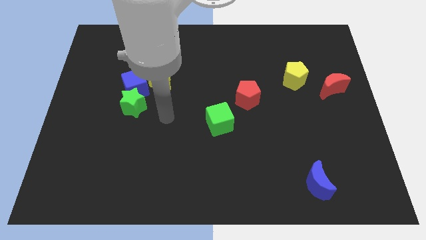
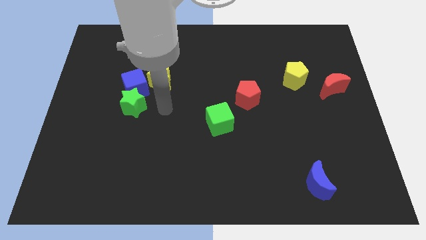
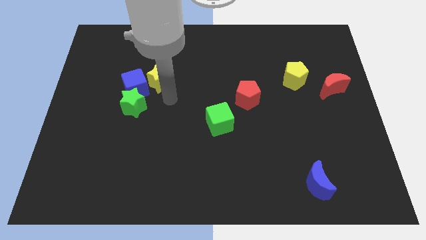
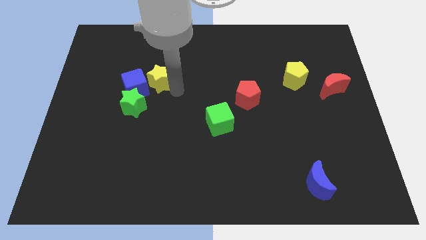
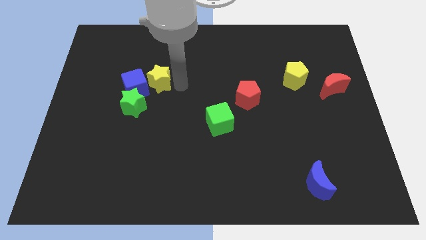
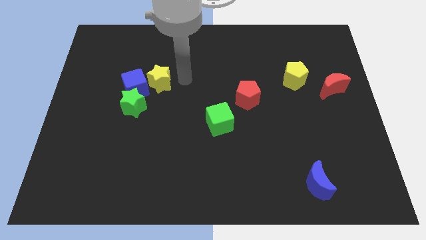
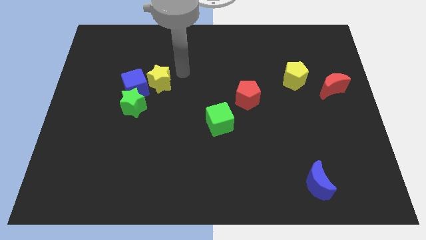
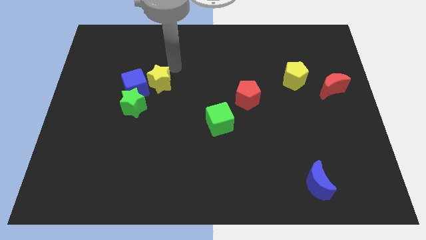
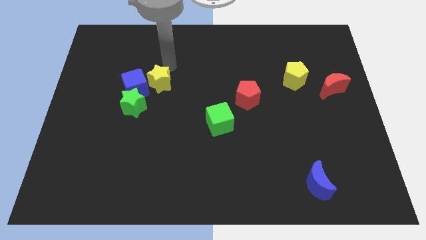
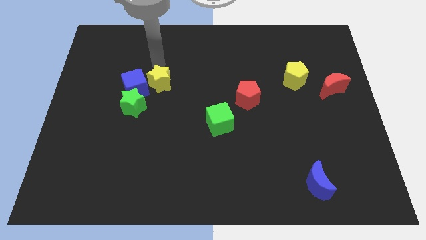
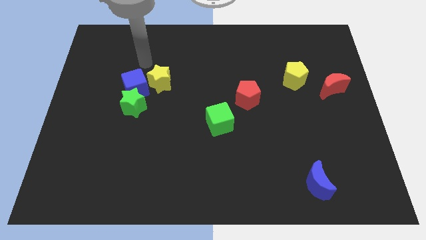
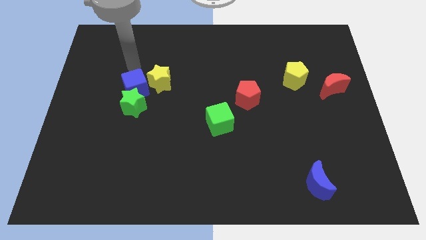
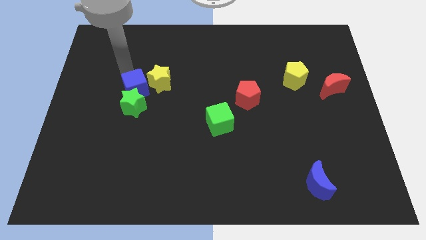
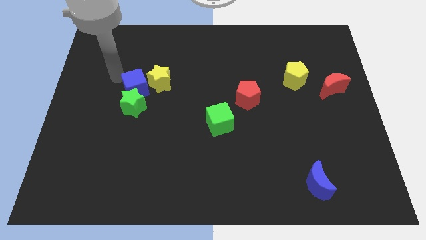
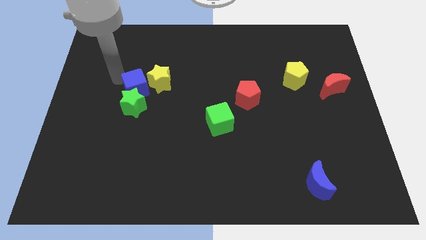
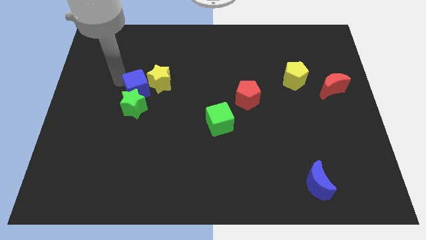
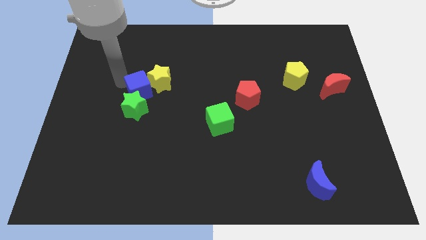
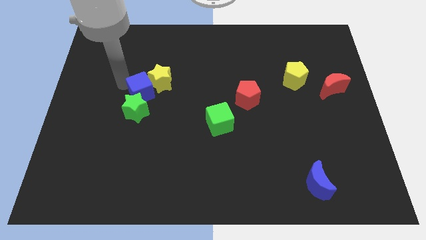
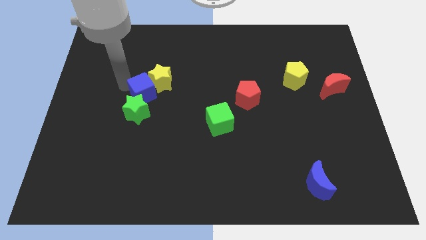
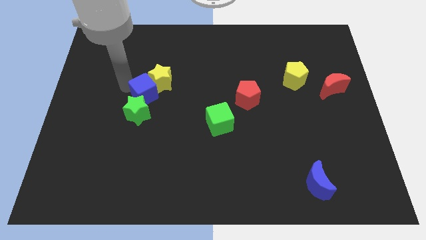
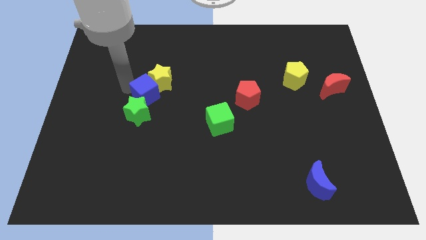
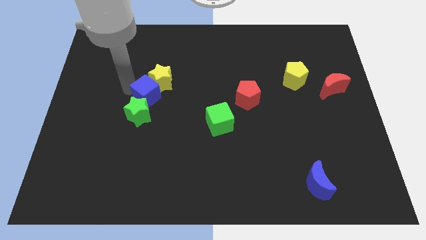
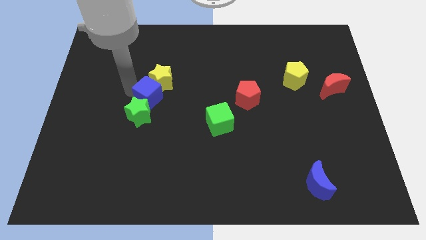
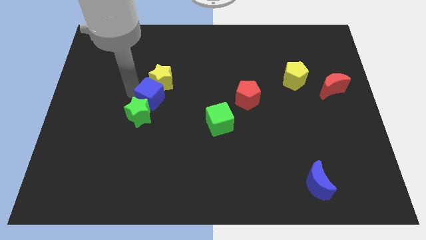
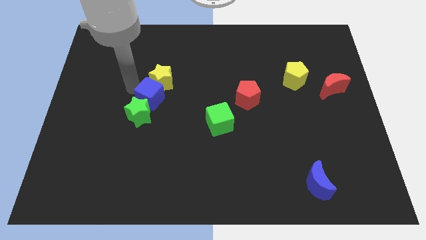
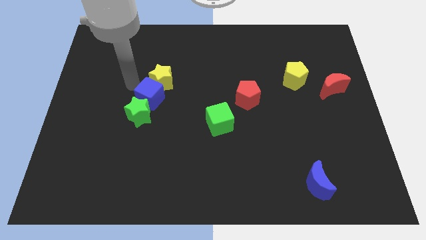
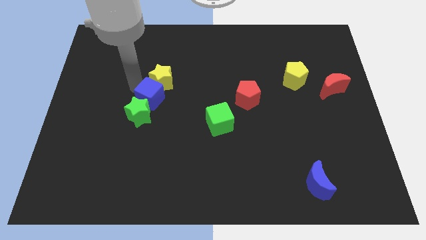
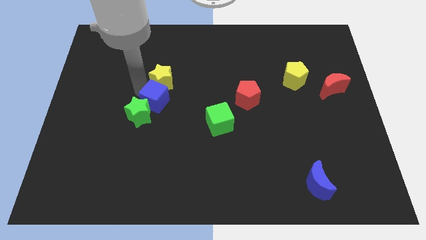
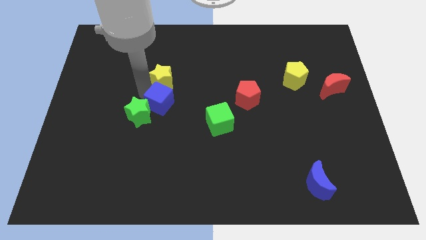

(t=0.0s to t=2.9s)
slide the blue cube somewhat down and right diagonally

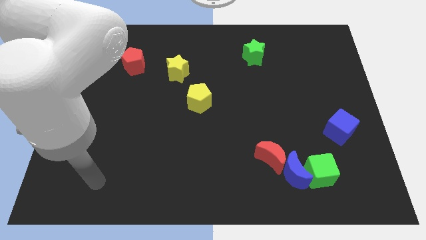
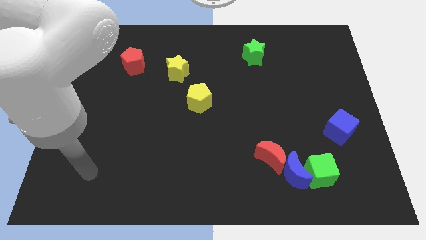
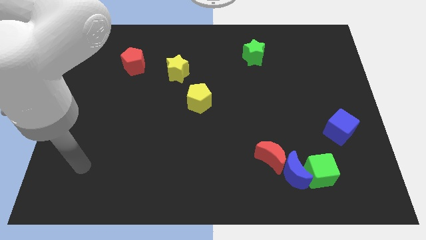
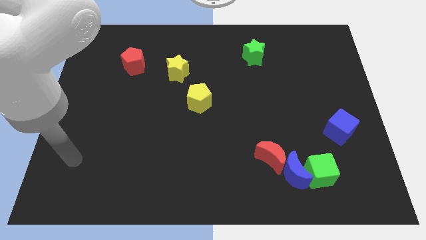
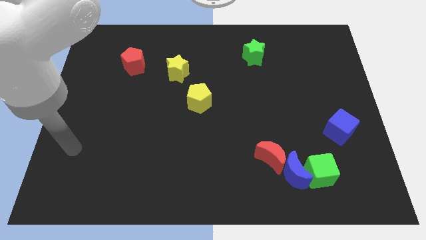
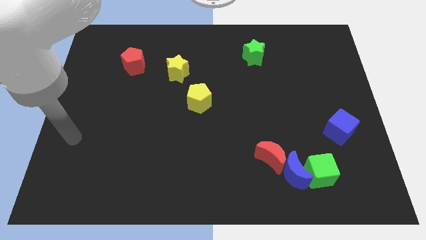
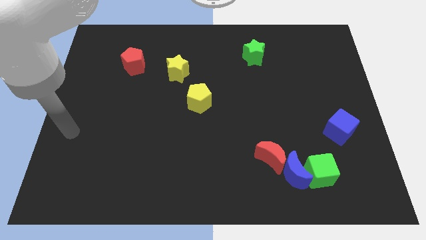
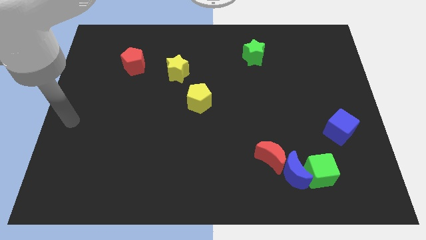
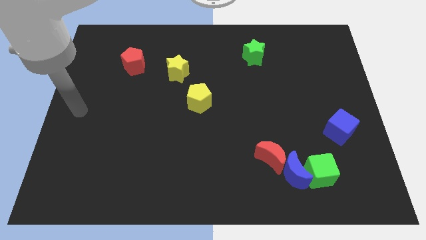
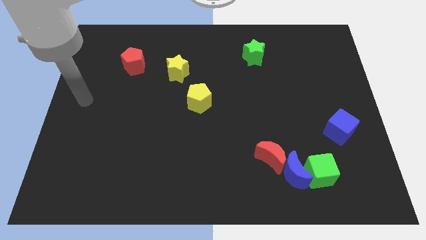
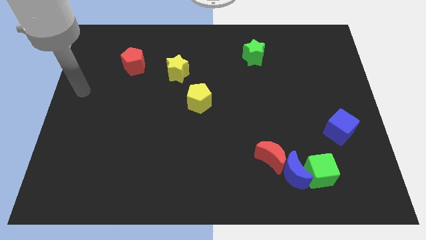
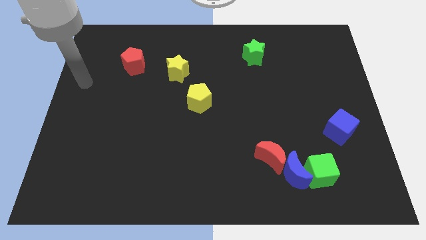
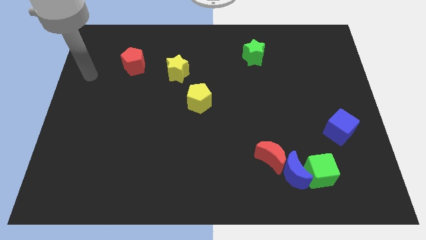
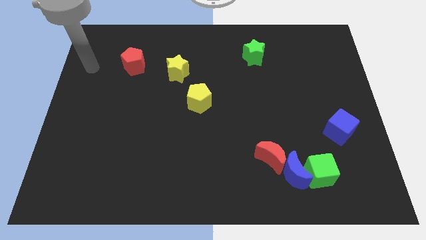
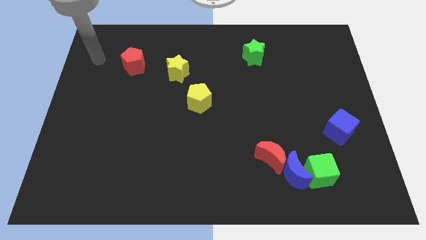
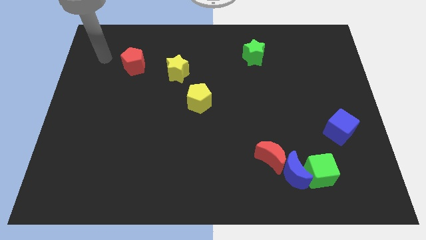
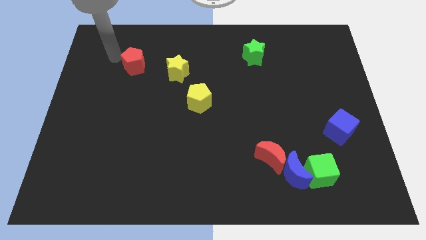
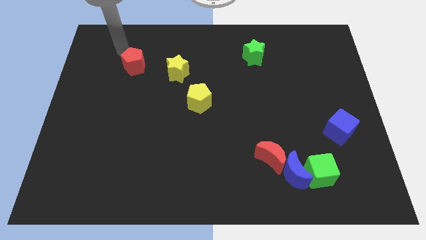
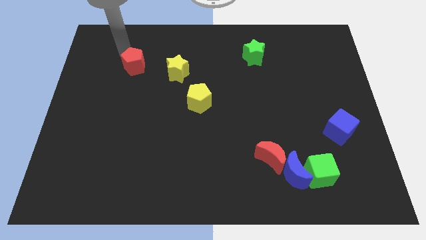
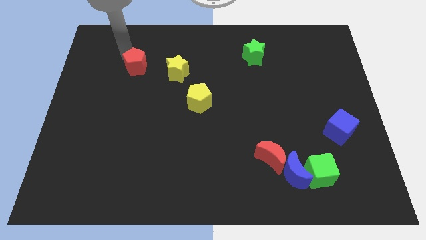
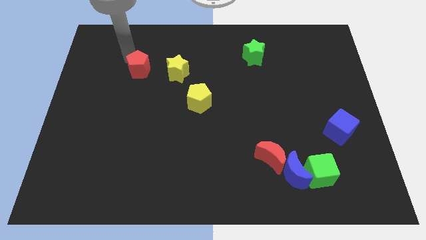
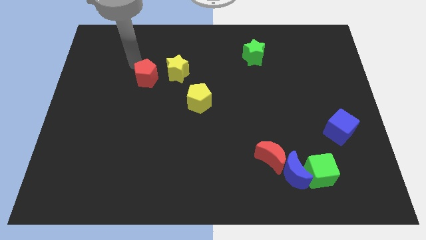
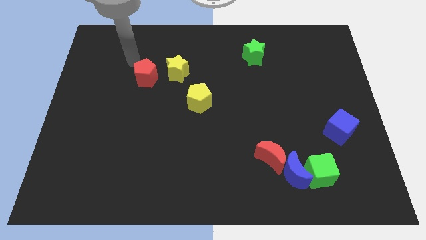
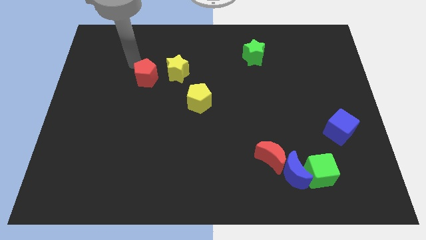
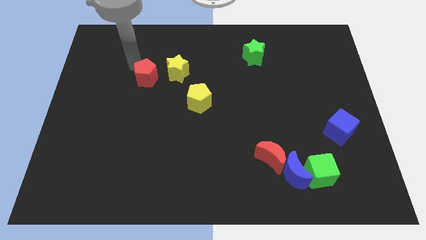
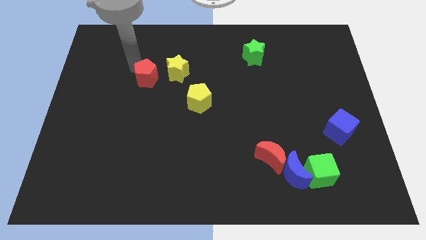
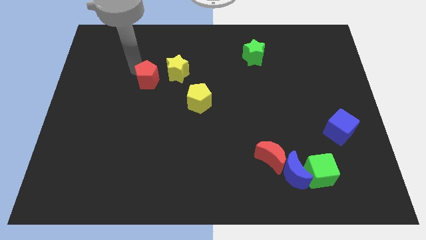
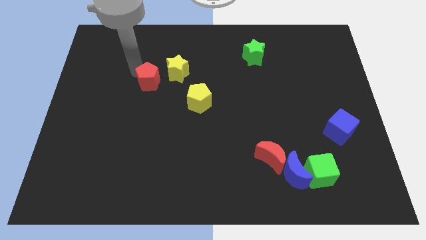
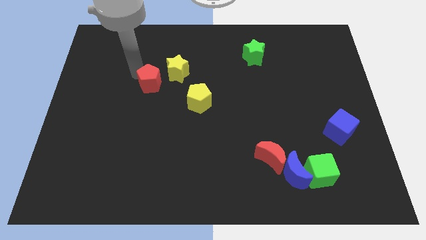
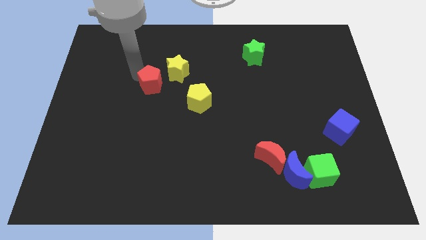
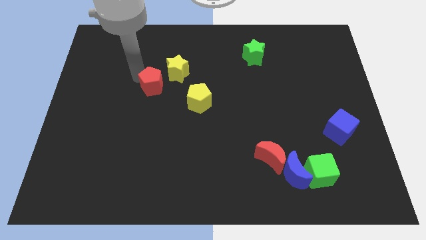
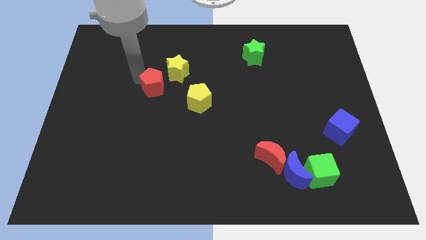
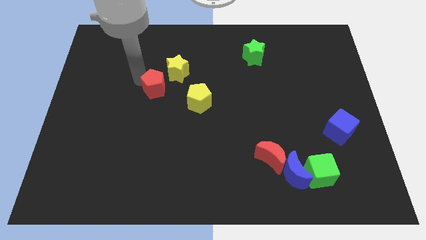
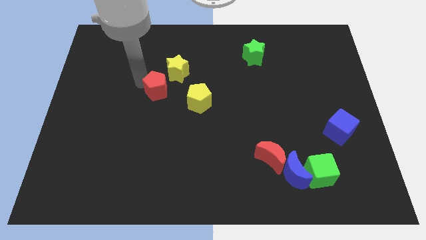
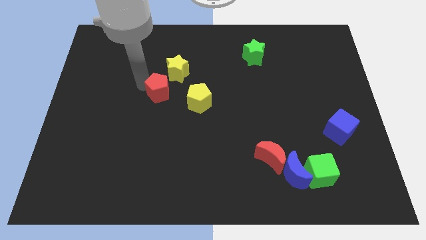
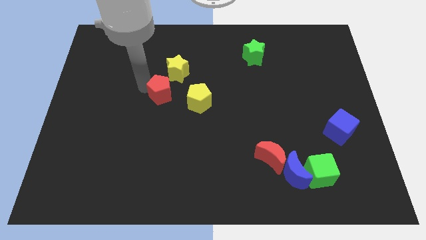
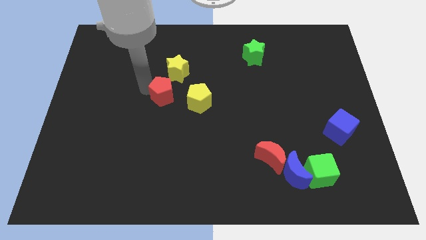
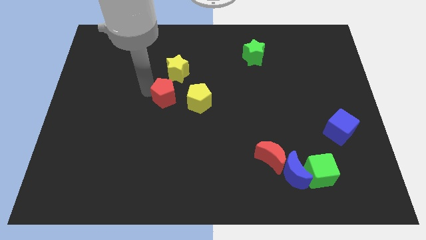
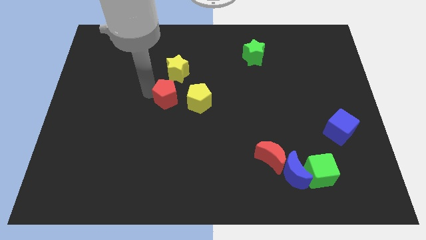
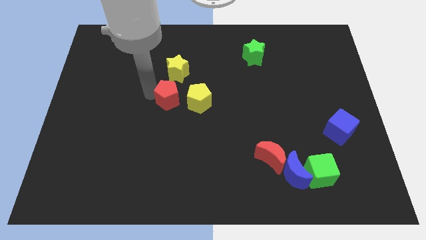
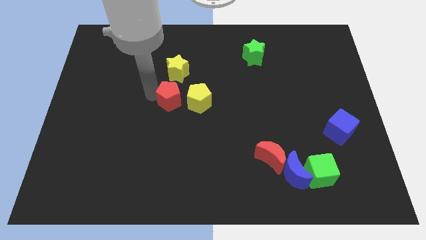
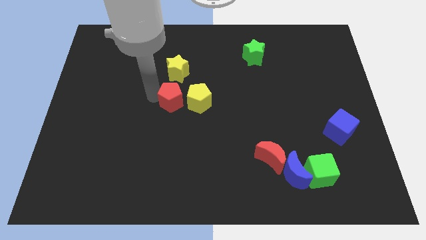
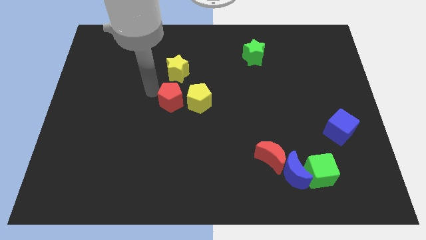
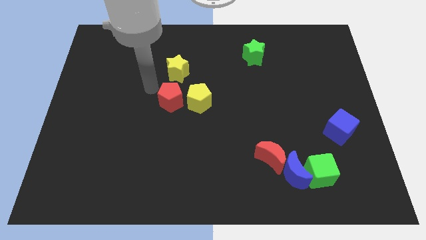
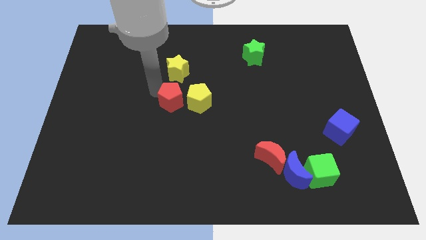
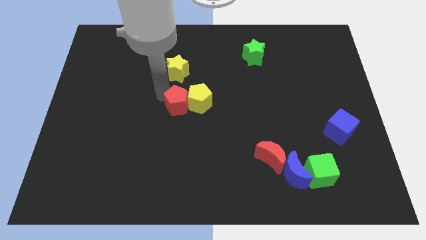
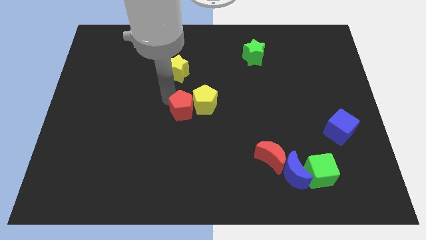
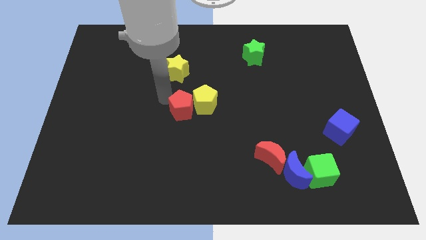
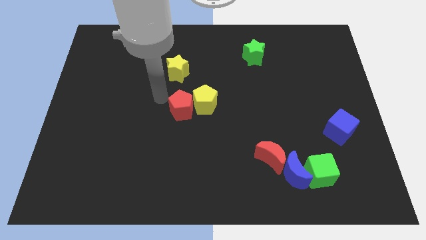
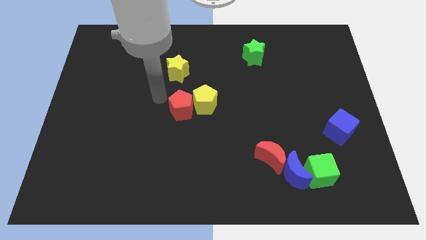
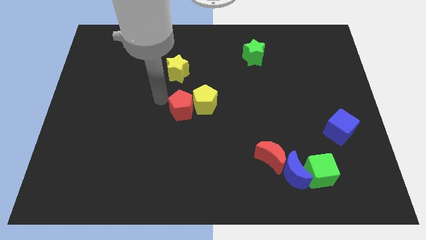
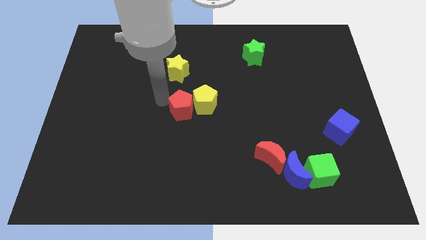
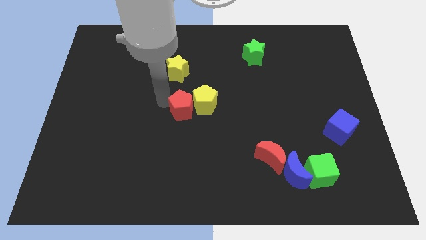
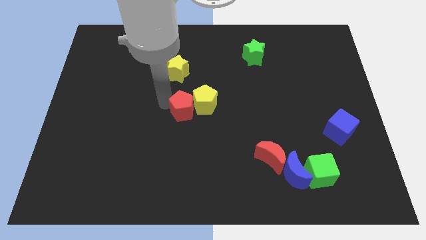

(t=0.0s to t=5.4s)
move the red pentagon down and then right
